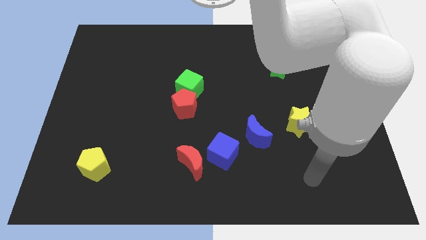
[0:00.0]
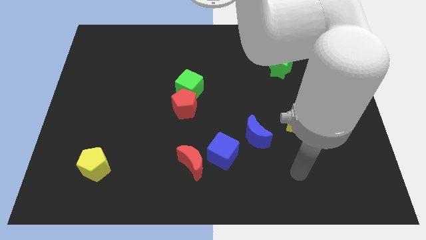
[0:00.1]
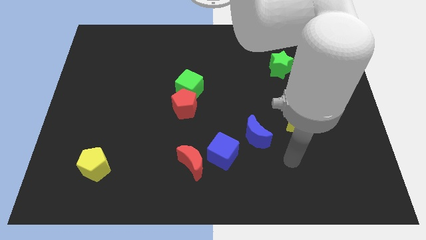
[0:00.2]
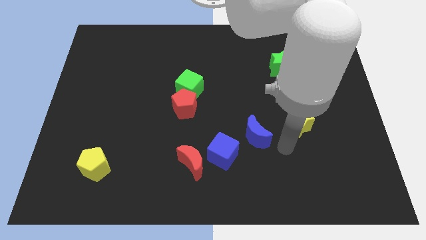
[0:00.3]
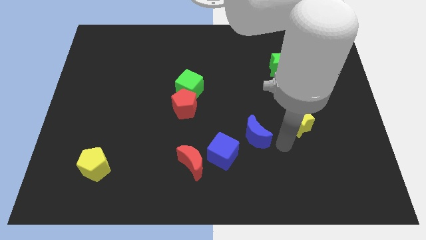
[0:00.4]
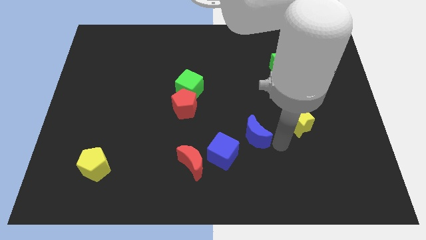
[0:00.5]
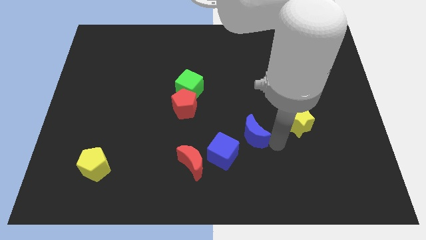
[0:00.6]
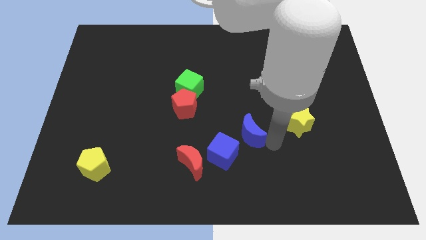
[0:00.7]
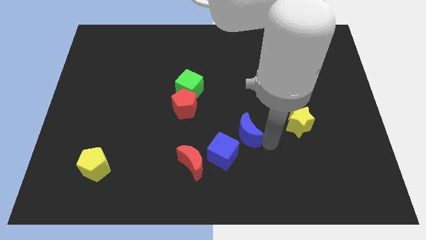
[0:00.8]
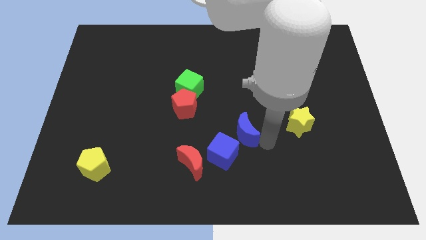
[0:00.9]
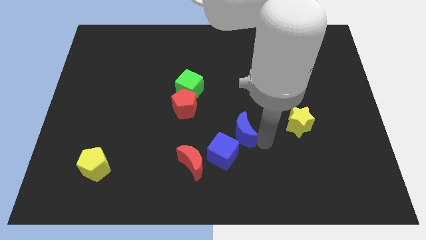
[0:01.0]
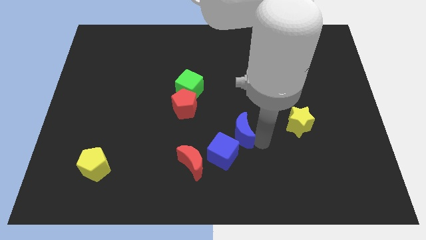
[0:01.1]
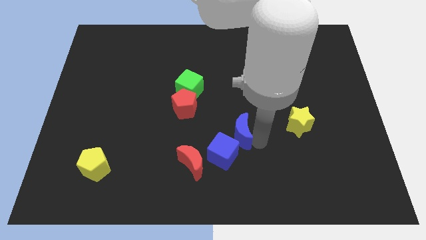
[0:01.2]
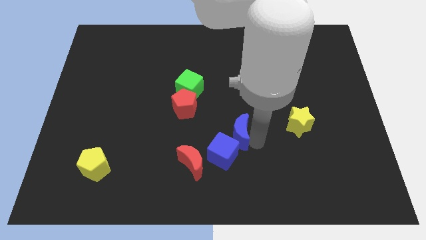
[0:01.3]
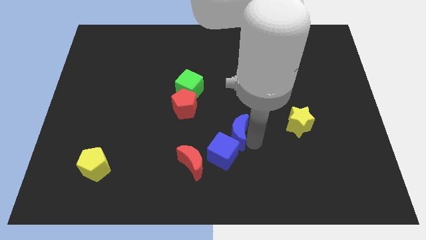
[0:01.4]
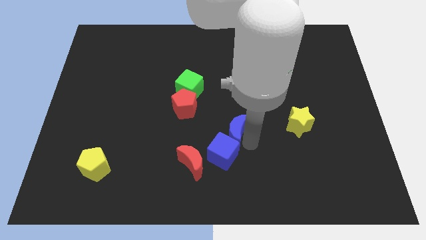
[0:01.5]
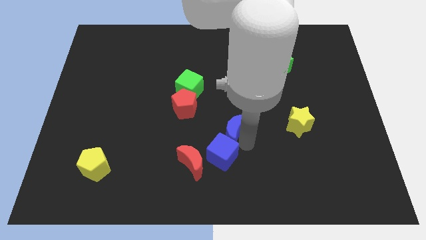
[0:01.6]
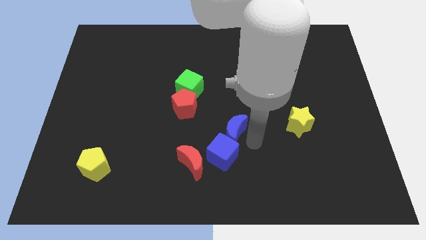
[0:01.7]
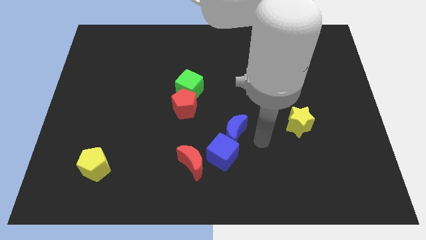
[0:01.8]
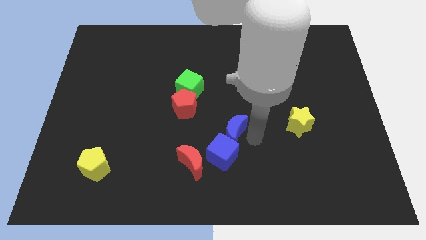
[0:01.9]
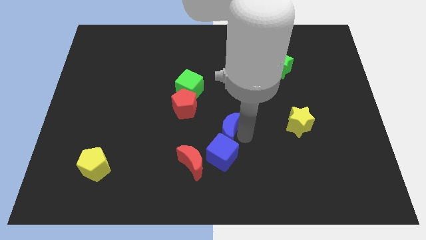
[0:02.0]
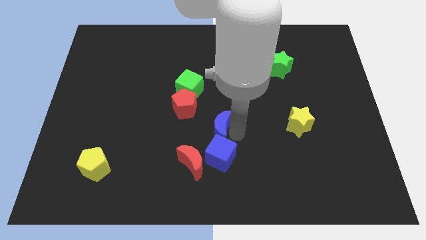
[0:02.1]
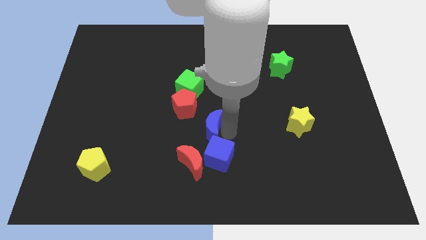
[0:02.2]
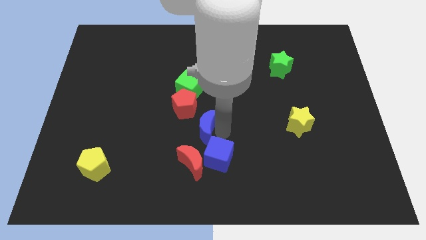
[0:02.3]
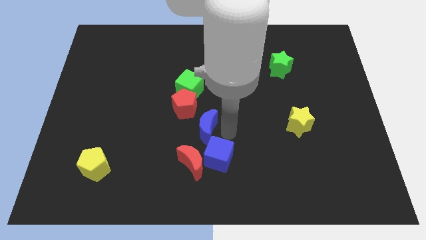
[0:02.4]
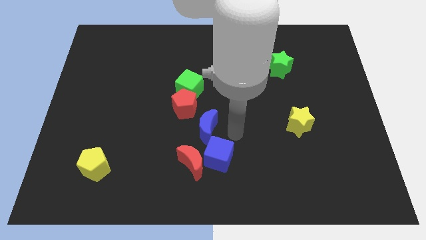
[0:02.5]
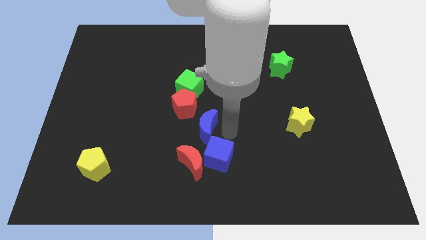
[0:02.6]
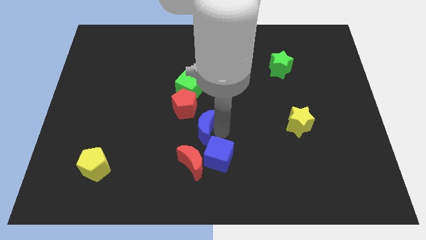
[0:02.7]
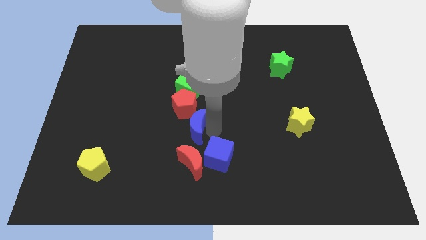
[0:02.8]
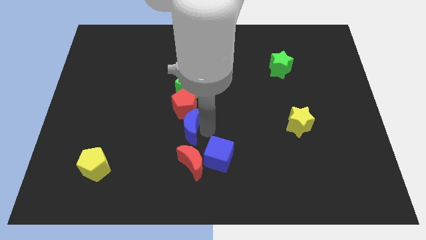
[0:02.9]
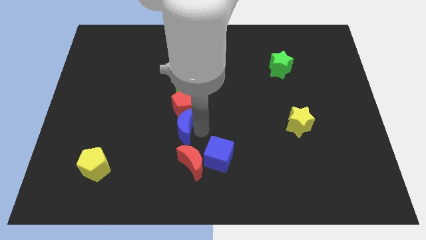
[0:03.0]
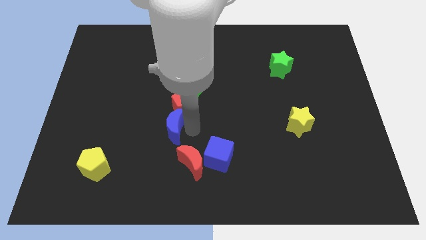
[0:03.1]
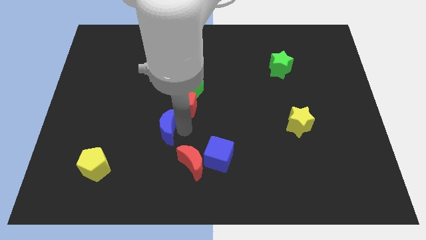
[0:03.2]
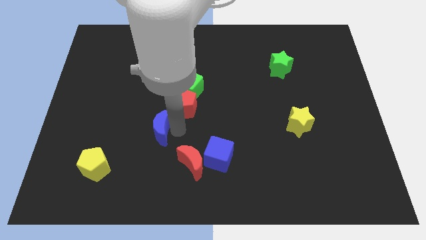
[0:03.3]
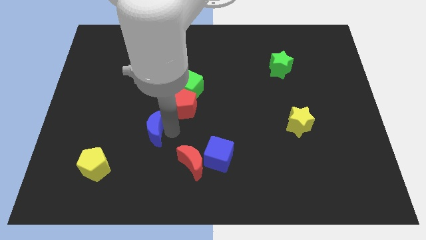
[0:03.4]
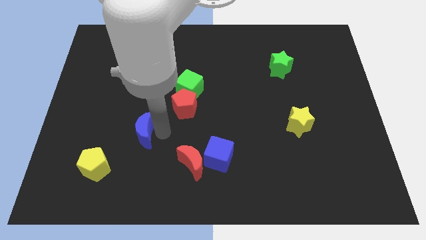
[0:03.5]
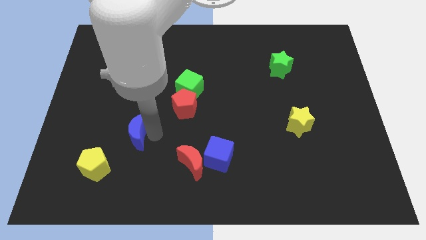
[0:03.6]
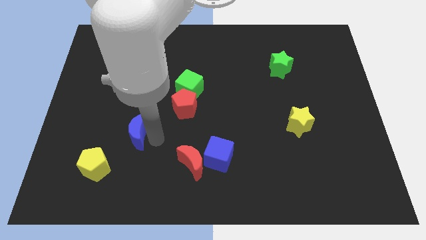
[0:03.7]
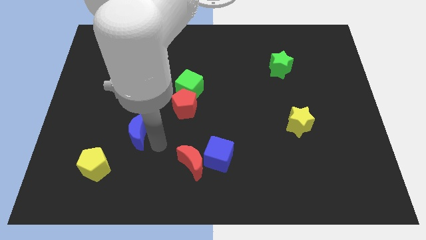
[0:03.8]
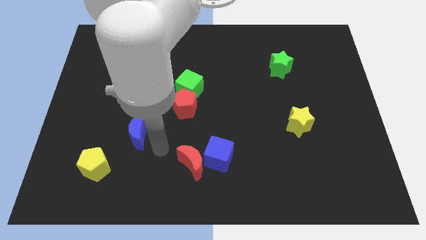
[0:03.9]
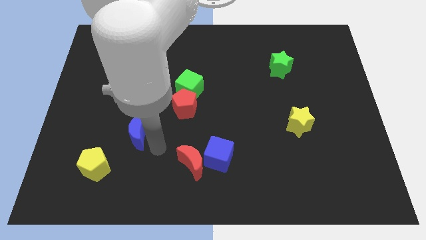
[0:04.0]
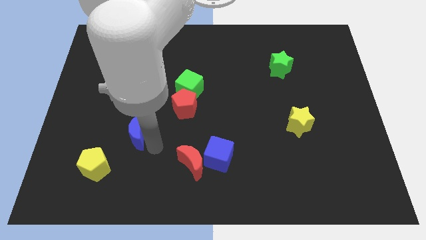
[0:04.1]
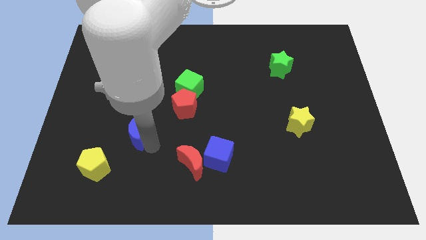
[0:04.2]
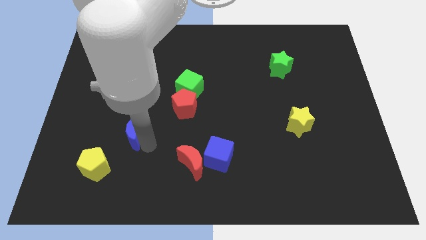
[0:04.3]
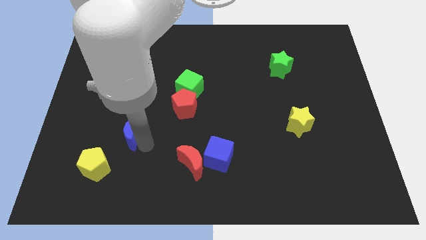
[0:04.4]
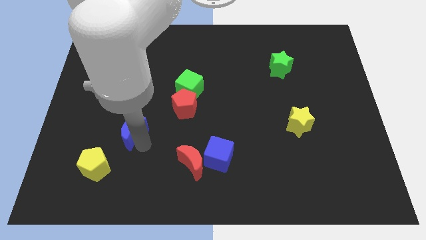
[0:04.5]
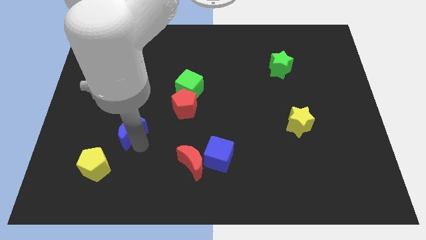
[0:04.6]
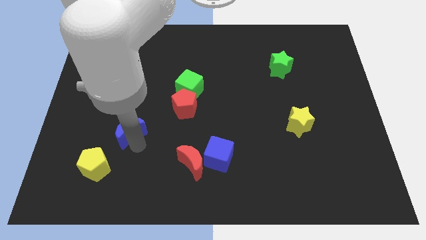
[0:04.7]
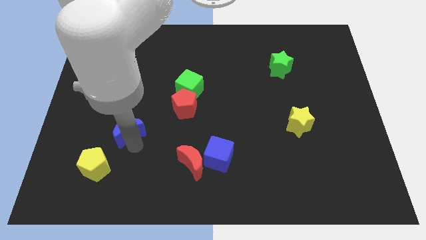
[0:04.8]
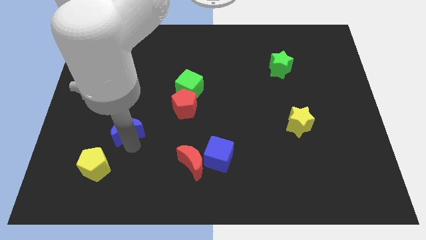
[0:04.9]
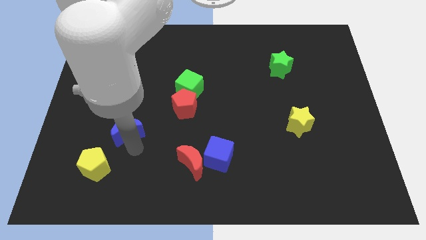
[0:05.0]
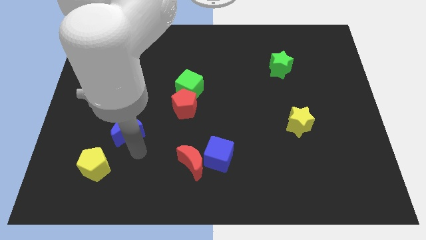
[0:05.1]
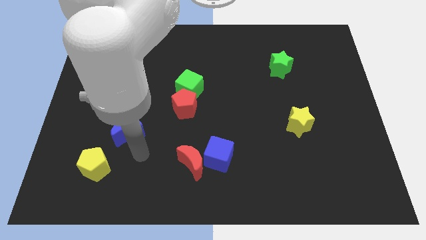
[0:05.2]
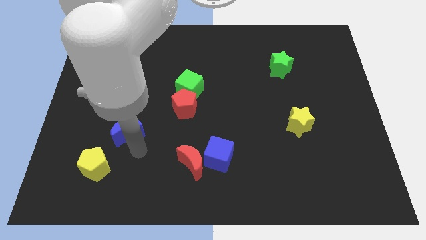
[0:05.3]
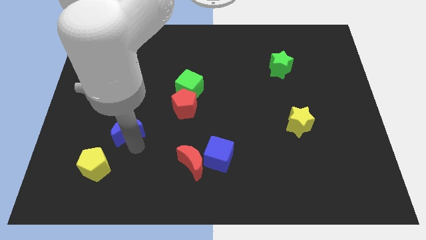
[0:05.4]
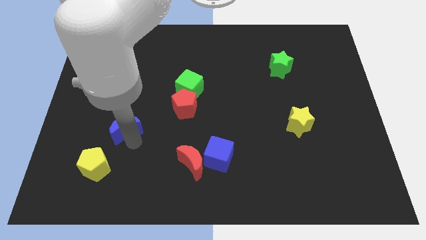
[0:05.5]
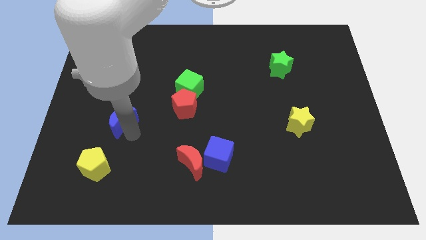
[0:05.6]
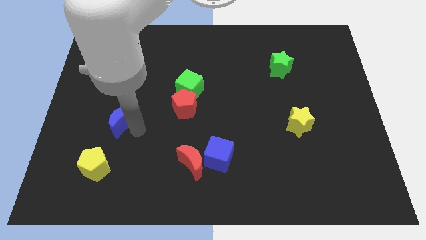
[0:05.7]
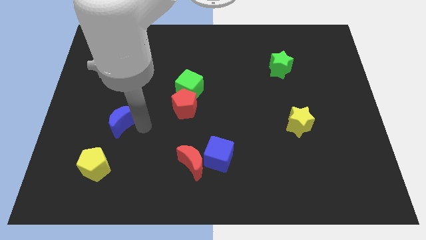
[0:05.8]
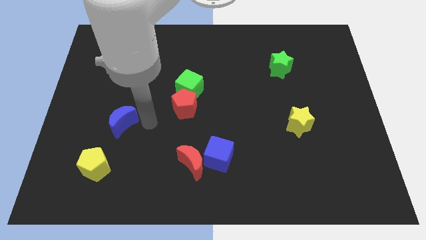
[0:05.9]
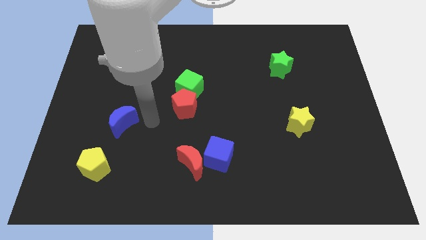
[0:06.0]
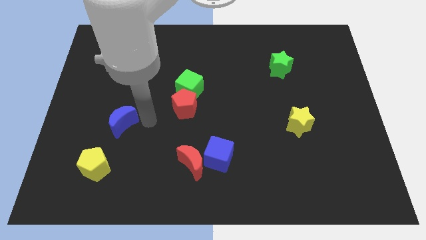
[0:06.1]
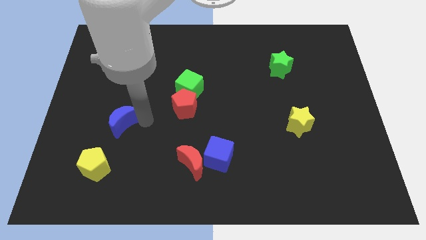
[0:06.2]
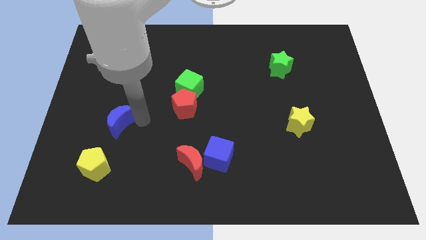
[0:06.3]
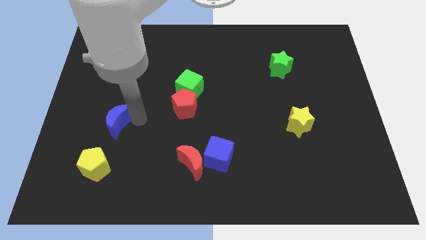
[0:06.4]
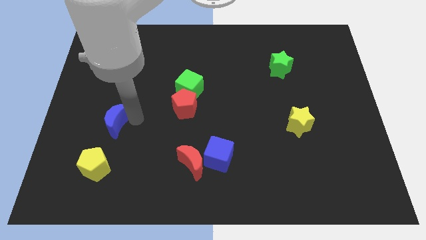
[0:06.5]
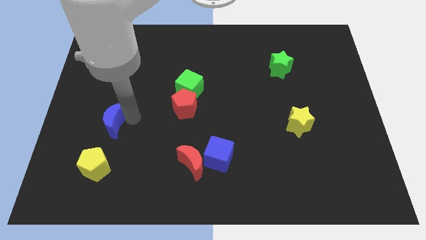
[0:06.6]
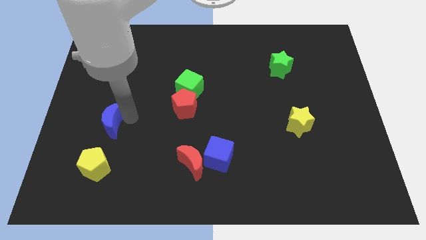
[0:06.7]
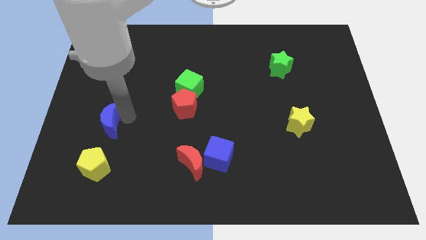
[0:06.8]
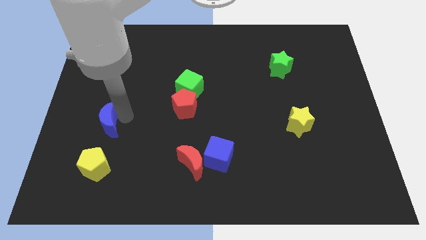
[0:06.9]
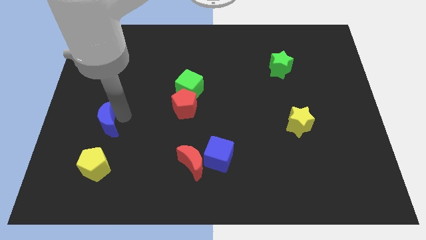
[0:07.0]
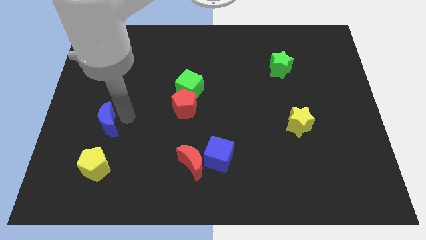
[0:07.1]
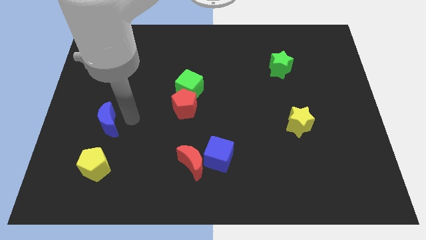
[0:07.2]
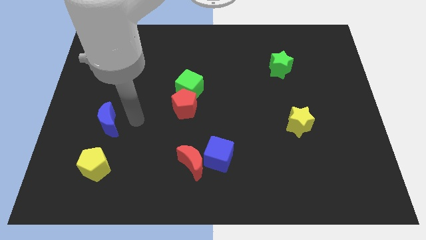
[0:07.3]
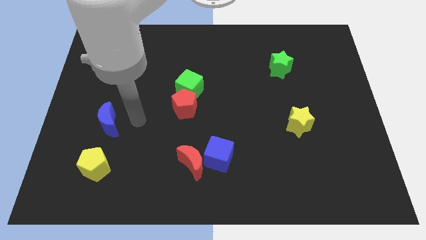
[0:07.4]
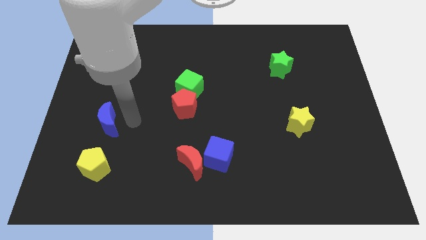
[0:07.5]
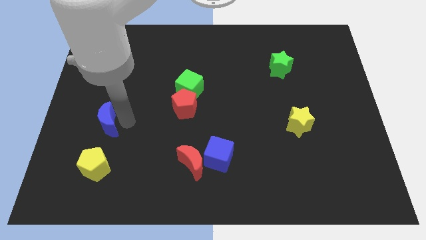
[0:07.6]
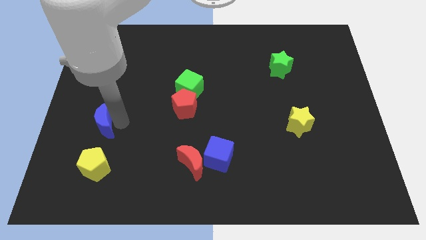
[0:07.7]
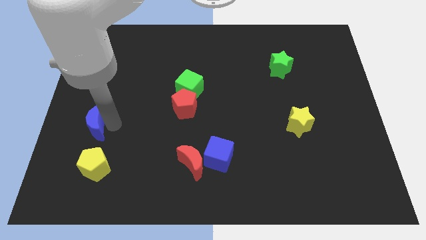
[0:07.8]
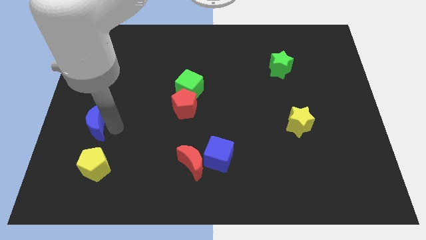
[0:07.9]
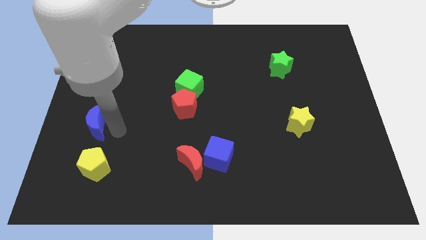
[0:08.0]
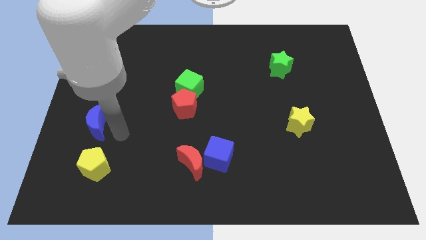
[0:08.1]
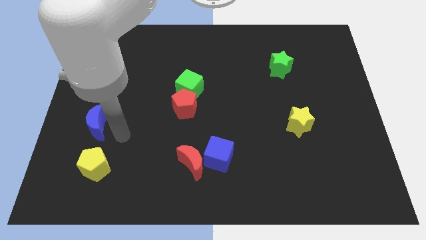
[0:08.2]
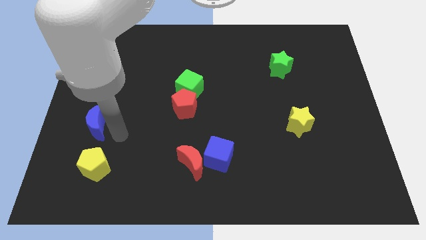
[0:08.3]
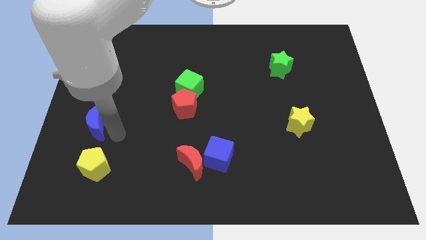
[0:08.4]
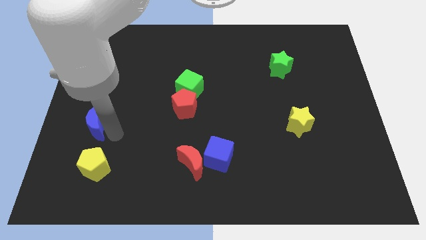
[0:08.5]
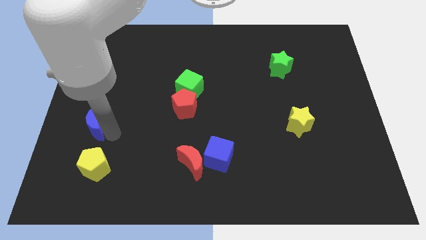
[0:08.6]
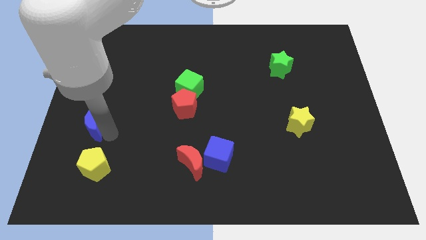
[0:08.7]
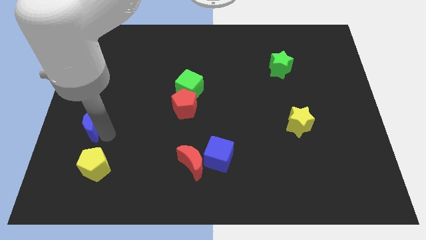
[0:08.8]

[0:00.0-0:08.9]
slide the blue moon to the left side
